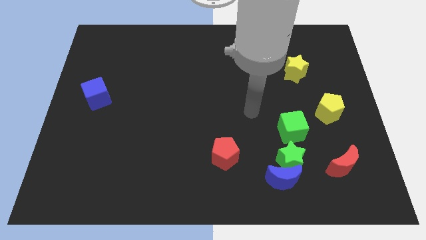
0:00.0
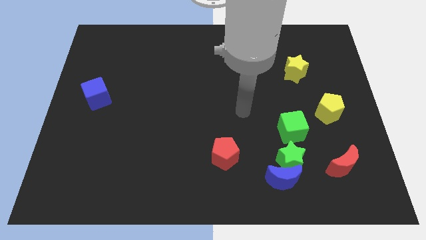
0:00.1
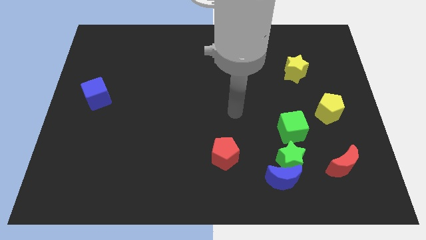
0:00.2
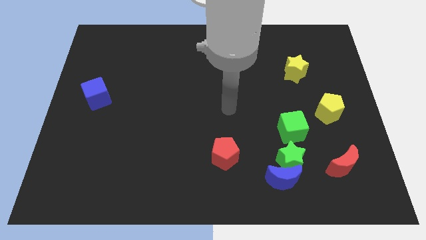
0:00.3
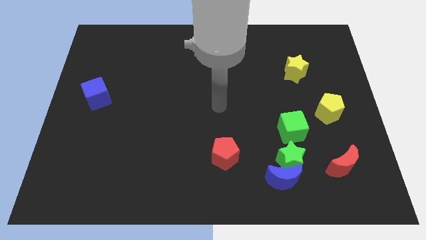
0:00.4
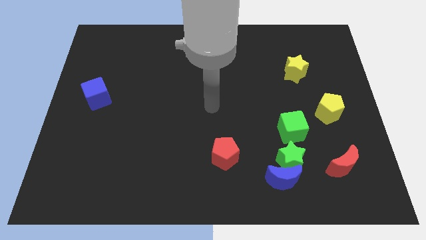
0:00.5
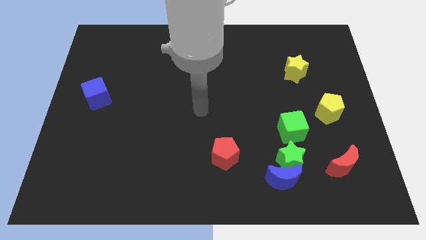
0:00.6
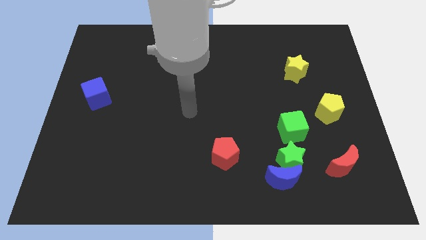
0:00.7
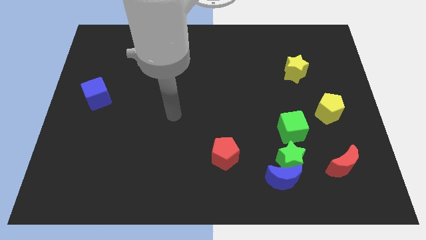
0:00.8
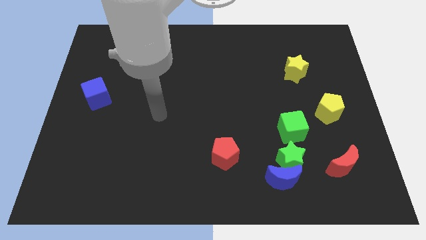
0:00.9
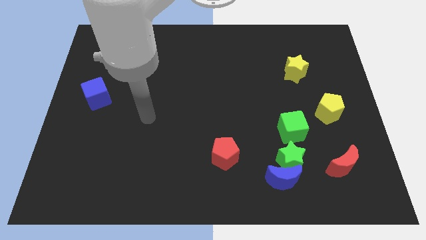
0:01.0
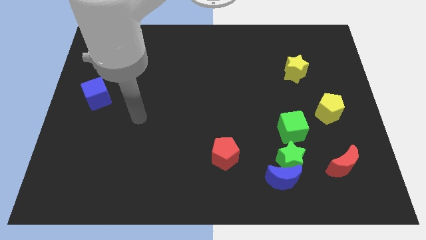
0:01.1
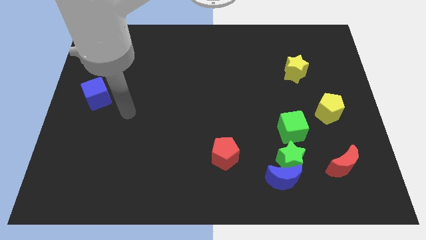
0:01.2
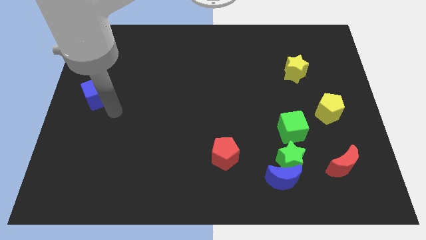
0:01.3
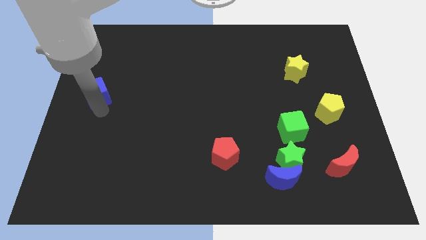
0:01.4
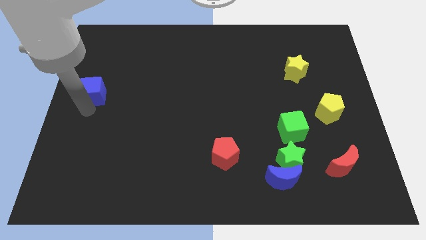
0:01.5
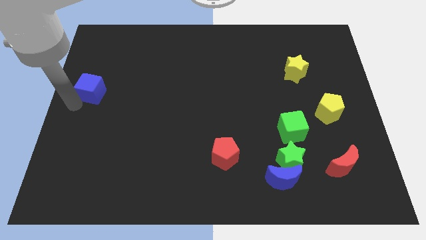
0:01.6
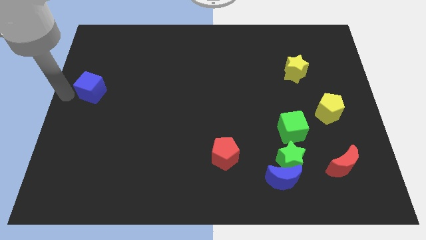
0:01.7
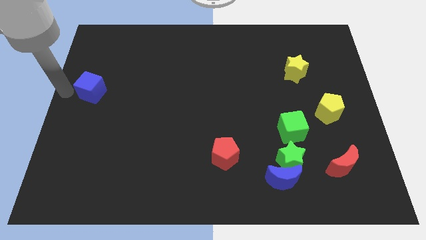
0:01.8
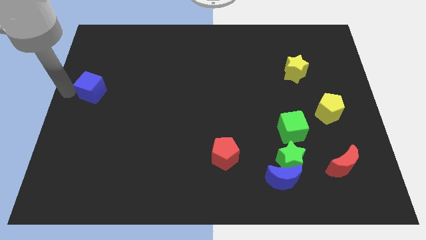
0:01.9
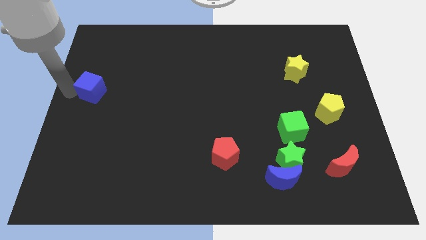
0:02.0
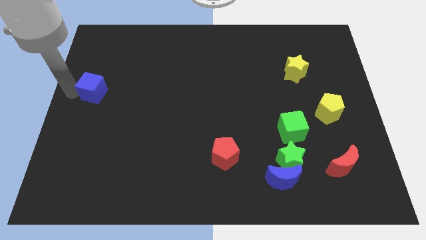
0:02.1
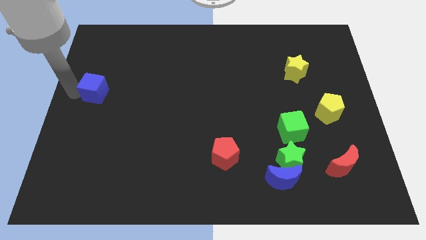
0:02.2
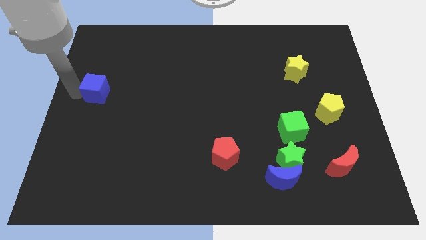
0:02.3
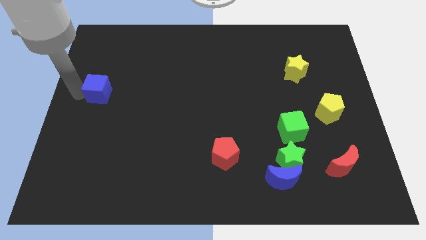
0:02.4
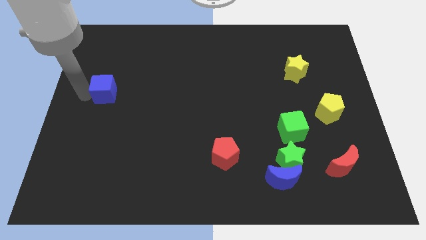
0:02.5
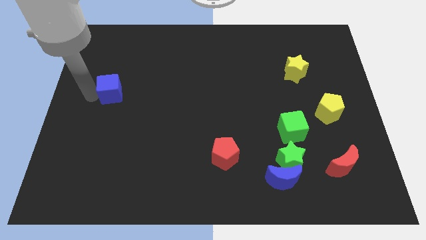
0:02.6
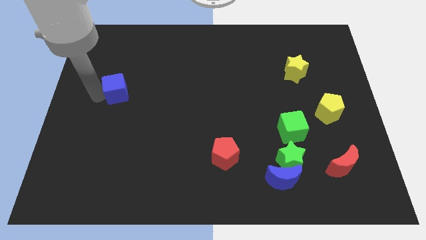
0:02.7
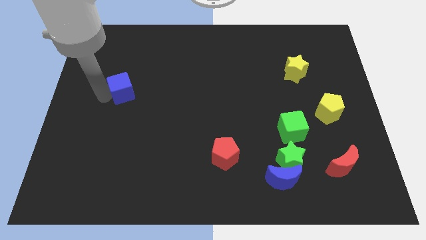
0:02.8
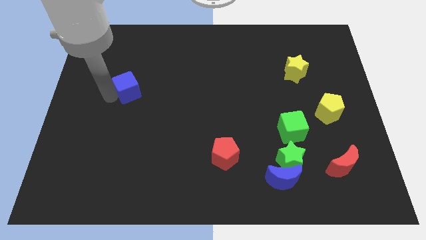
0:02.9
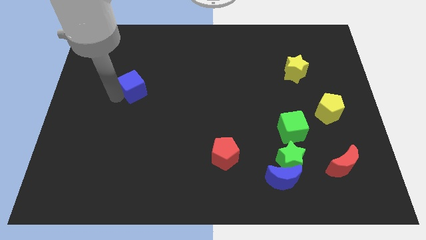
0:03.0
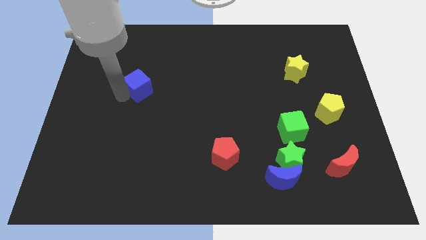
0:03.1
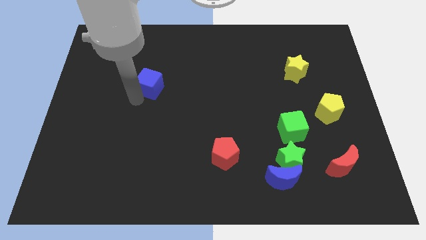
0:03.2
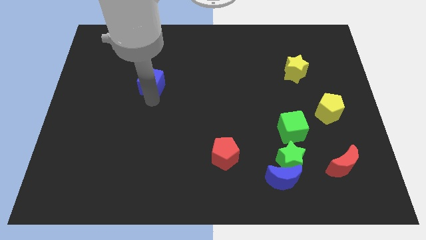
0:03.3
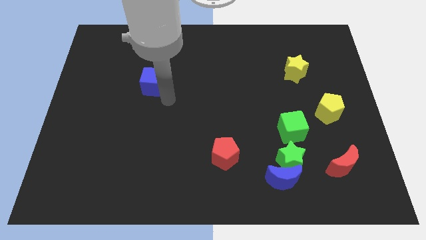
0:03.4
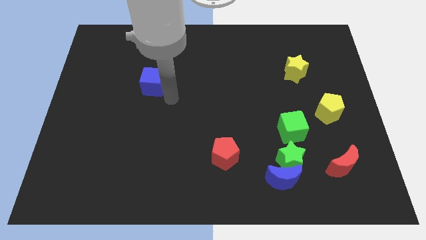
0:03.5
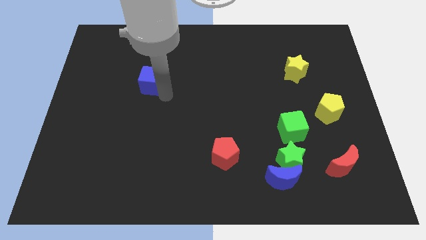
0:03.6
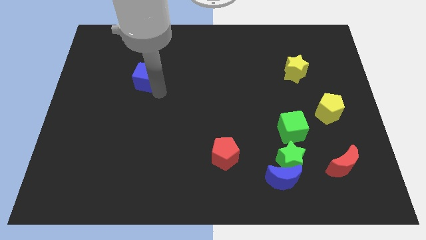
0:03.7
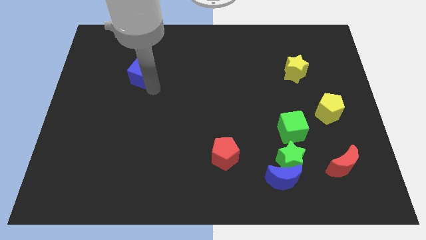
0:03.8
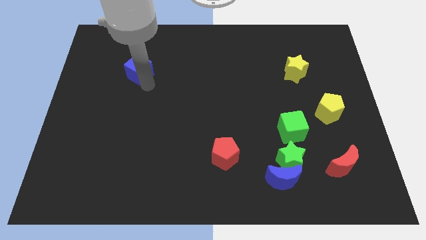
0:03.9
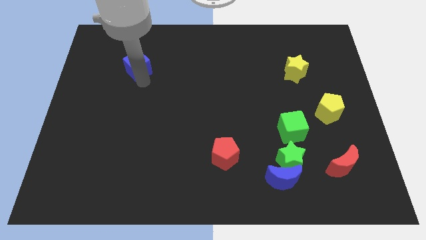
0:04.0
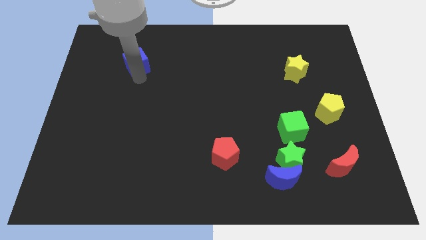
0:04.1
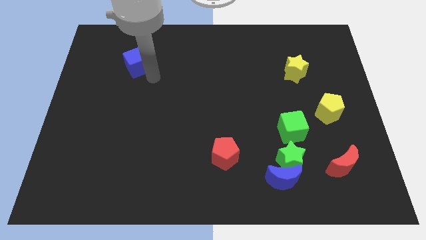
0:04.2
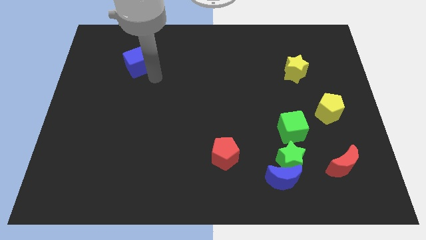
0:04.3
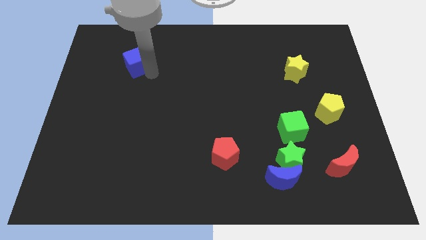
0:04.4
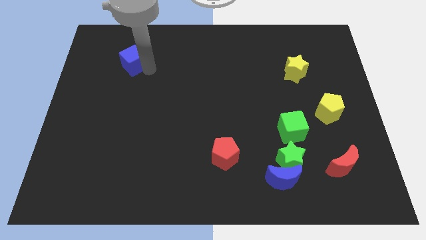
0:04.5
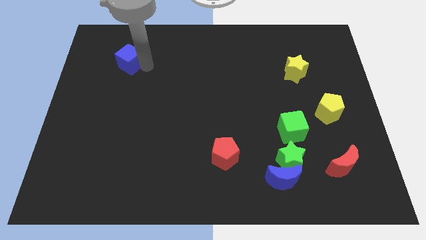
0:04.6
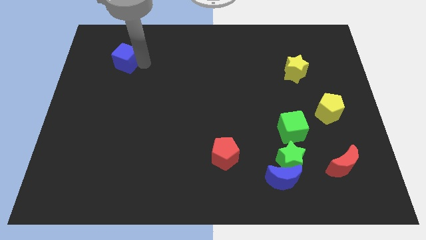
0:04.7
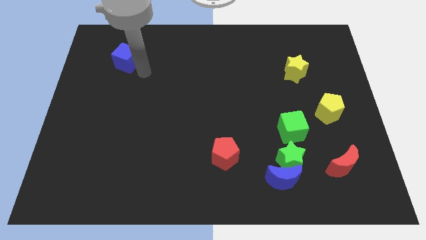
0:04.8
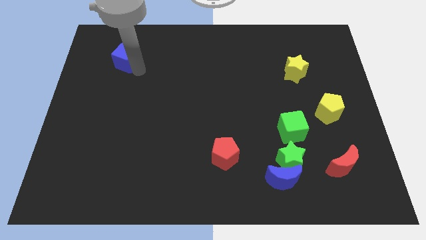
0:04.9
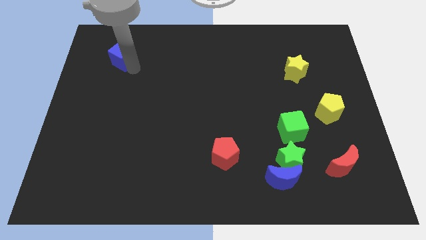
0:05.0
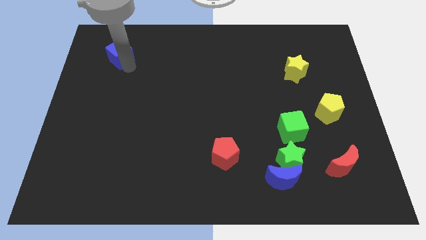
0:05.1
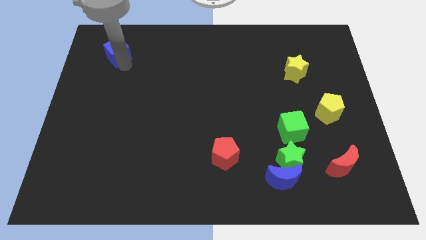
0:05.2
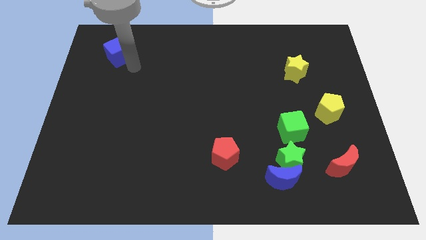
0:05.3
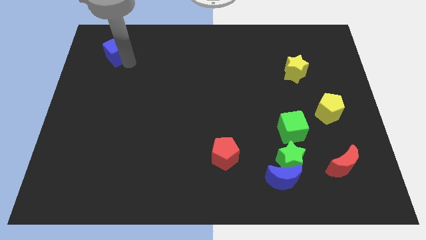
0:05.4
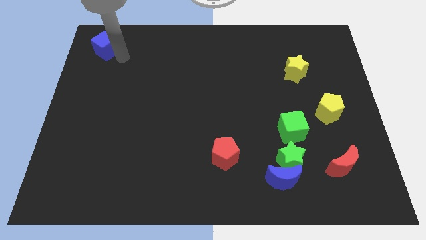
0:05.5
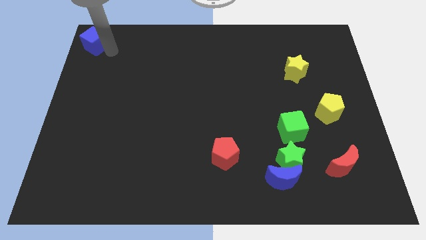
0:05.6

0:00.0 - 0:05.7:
move the blue cube to the top left

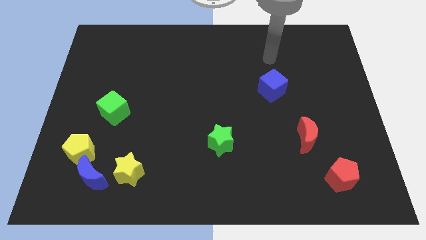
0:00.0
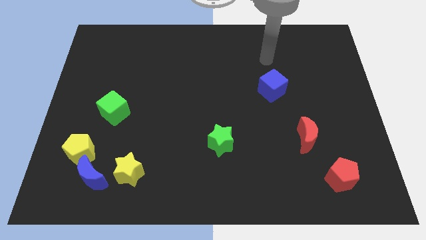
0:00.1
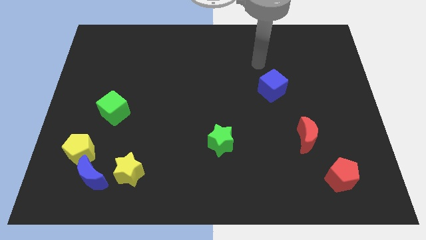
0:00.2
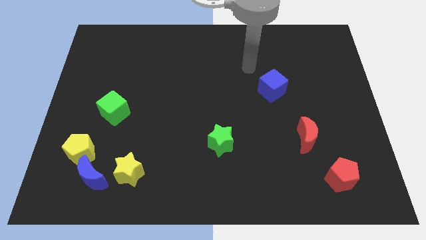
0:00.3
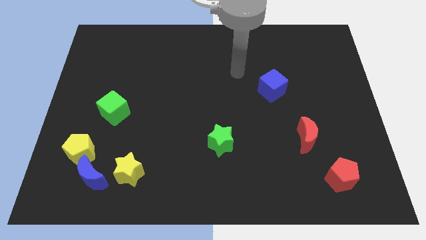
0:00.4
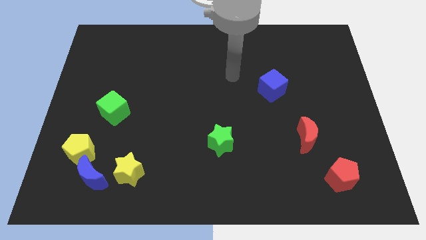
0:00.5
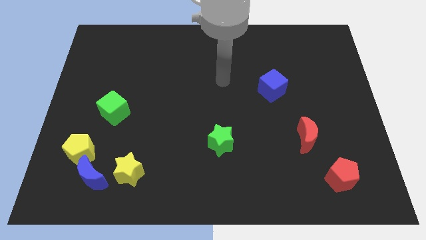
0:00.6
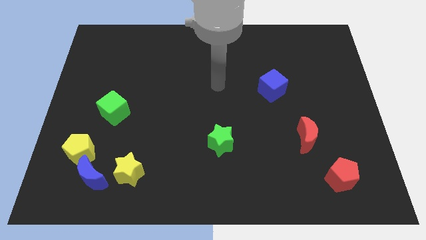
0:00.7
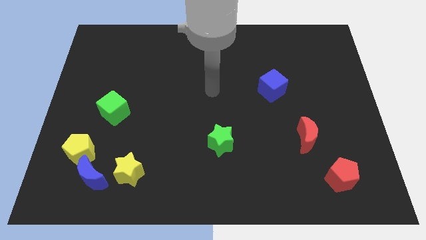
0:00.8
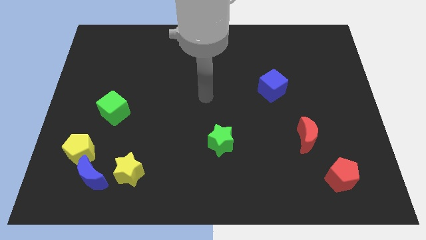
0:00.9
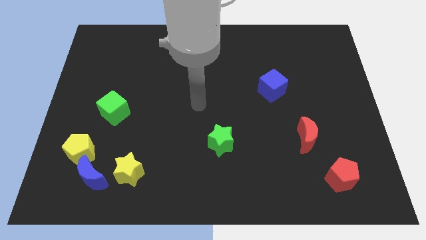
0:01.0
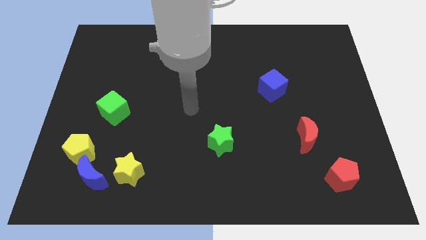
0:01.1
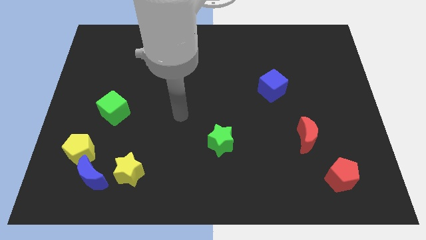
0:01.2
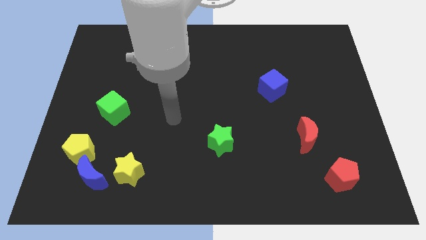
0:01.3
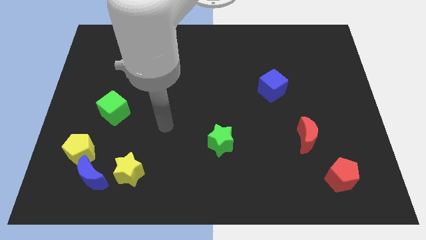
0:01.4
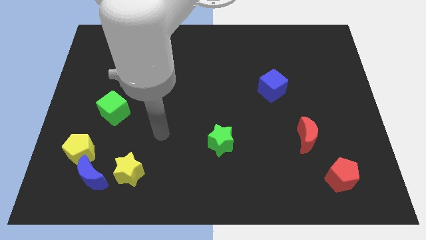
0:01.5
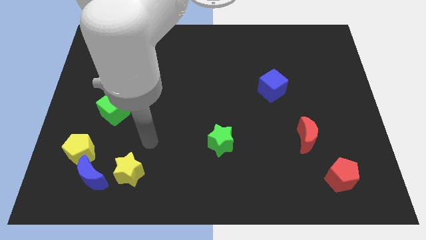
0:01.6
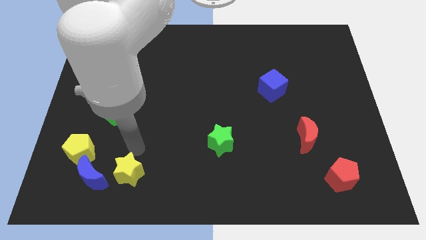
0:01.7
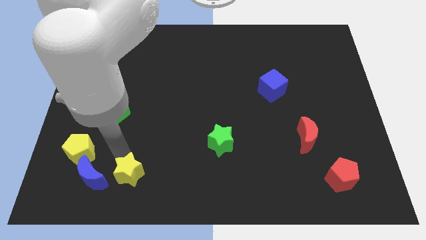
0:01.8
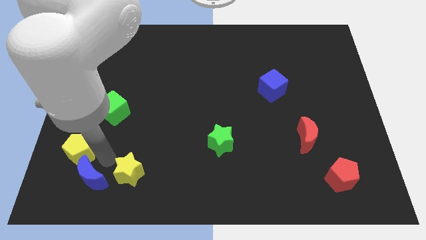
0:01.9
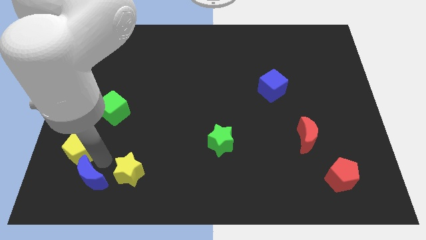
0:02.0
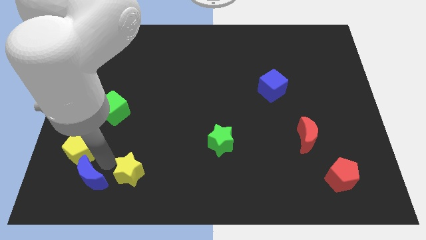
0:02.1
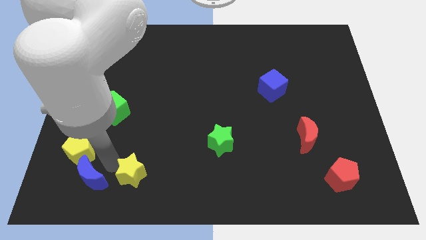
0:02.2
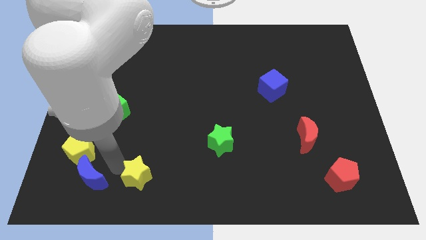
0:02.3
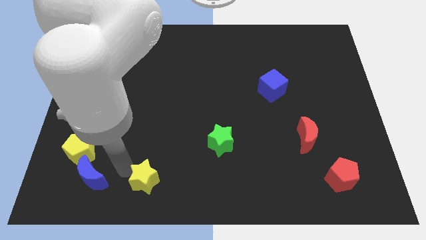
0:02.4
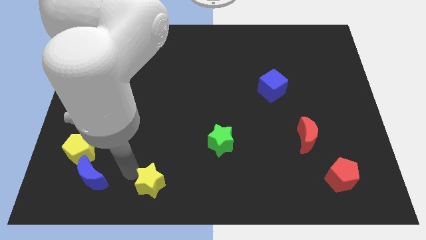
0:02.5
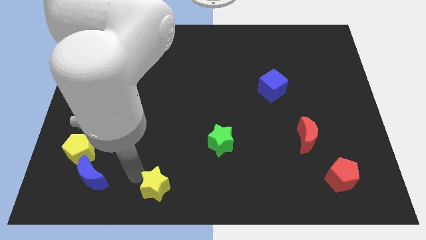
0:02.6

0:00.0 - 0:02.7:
put the yellow star to the bottom
